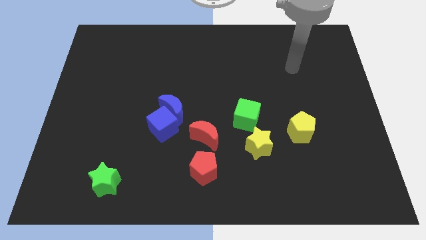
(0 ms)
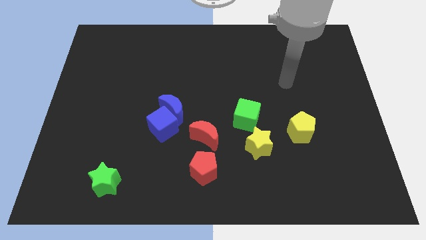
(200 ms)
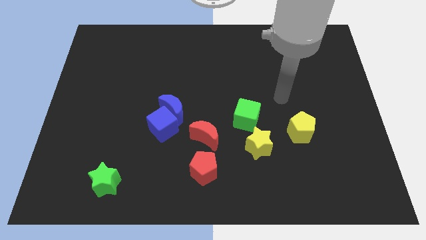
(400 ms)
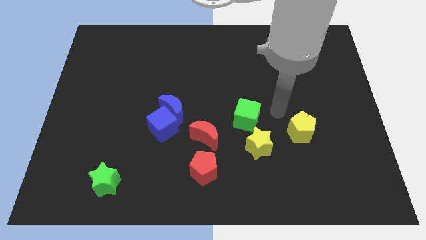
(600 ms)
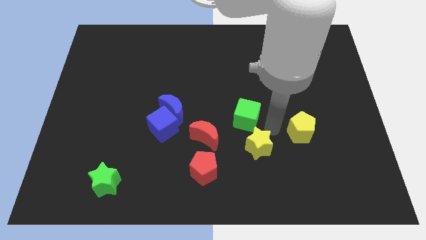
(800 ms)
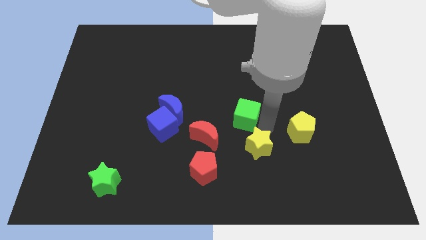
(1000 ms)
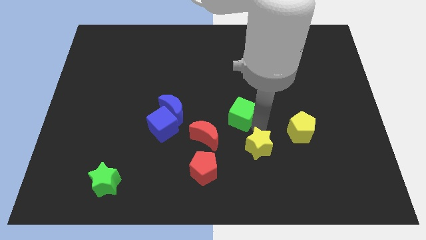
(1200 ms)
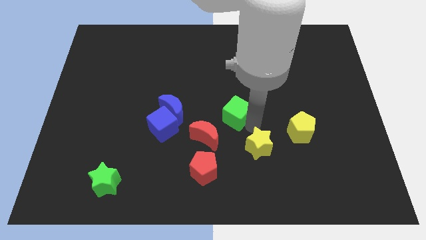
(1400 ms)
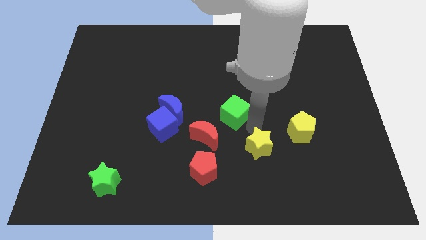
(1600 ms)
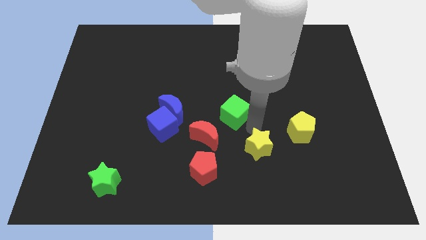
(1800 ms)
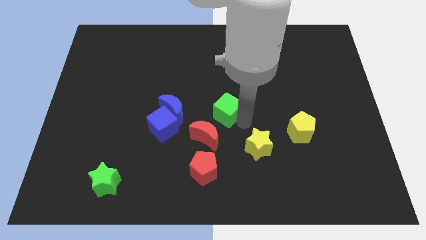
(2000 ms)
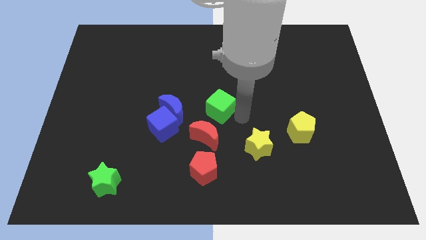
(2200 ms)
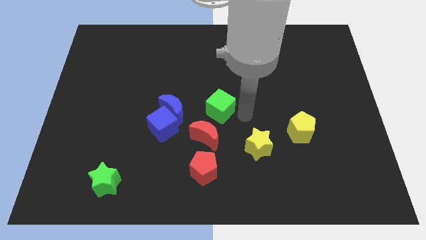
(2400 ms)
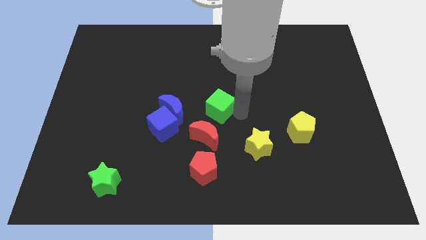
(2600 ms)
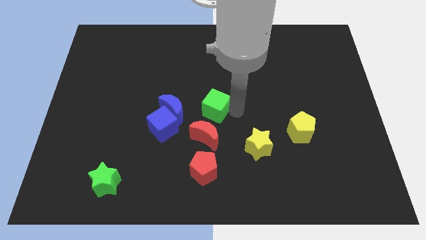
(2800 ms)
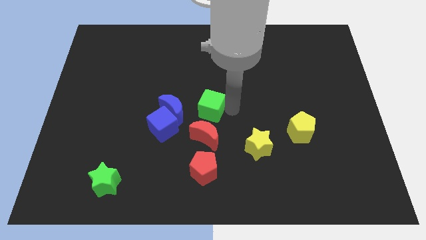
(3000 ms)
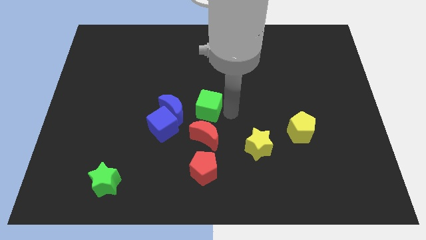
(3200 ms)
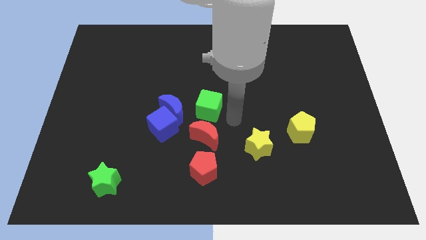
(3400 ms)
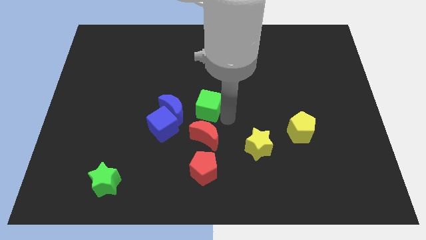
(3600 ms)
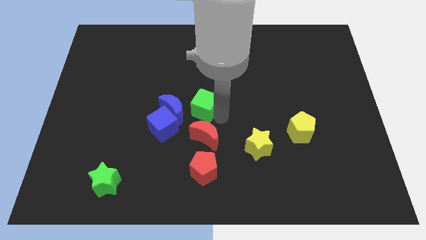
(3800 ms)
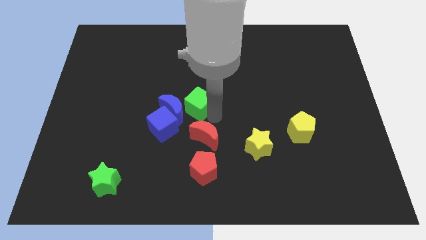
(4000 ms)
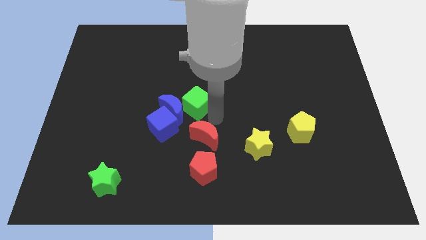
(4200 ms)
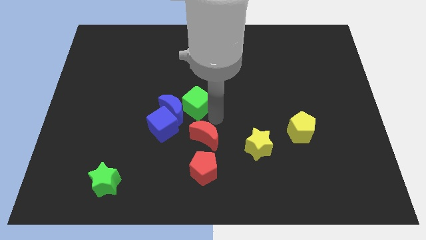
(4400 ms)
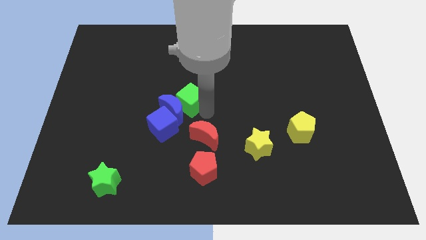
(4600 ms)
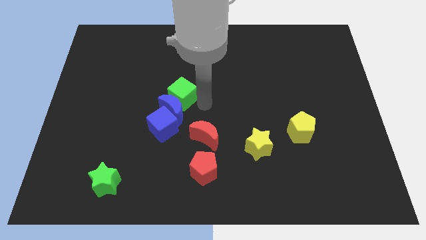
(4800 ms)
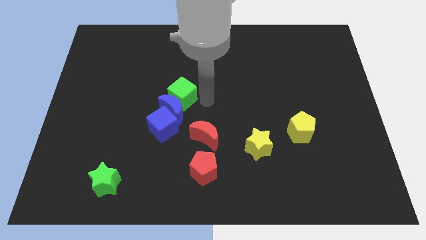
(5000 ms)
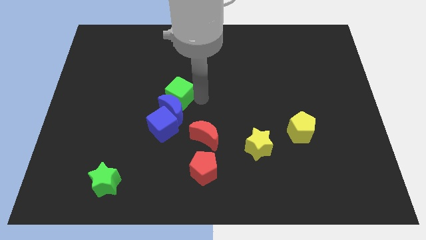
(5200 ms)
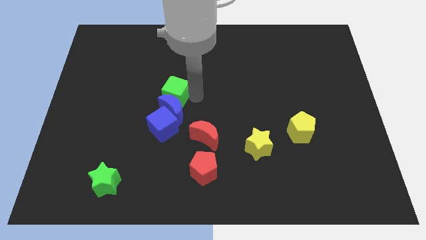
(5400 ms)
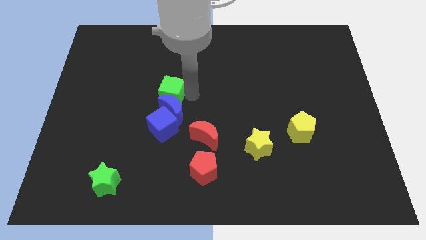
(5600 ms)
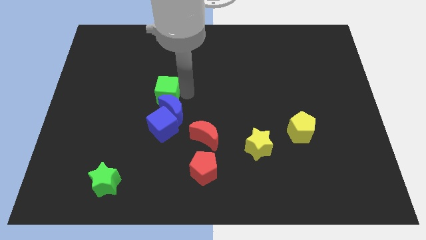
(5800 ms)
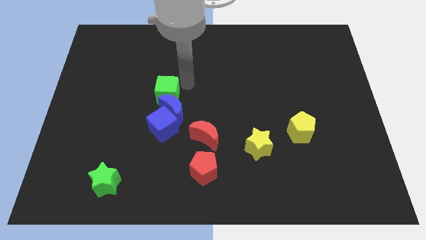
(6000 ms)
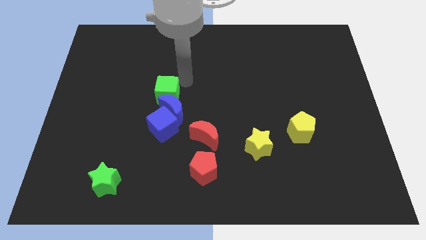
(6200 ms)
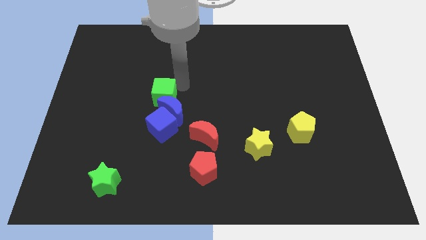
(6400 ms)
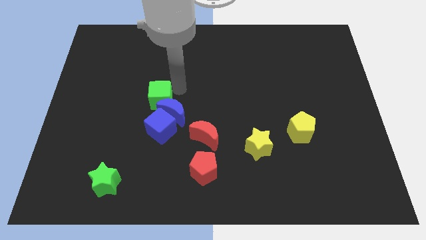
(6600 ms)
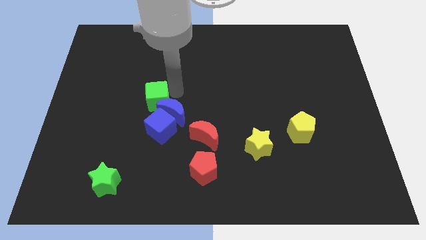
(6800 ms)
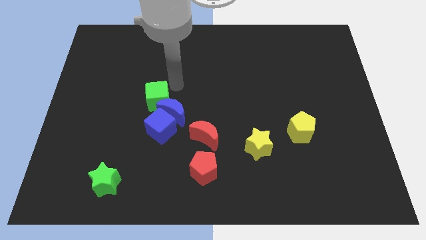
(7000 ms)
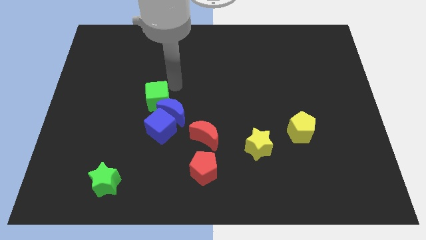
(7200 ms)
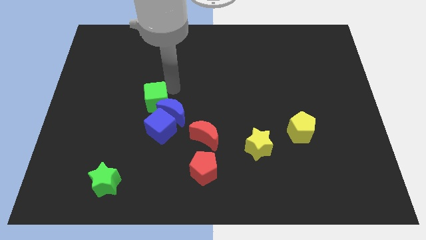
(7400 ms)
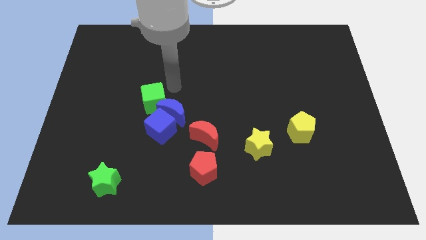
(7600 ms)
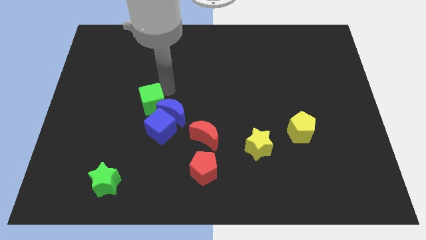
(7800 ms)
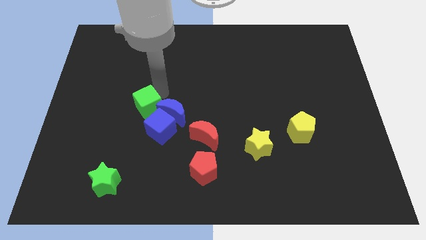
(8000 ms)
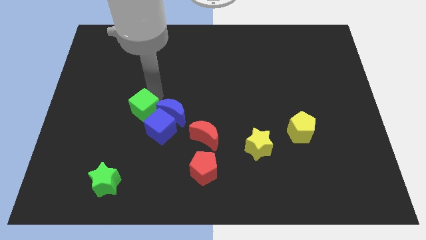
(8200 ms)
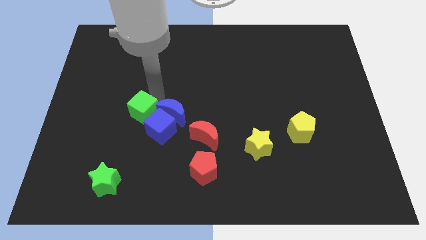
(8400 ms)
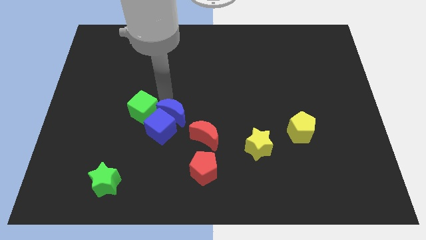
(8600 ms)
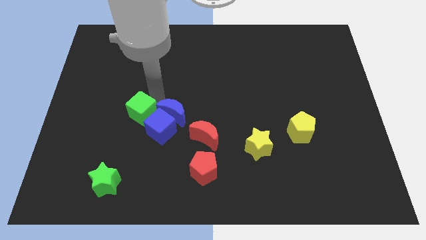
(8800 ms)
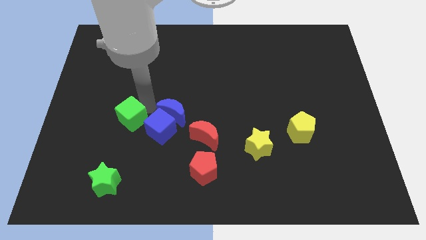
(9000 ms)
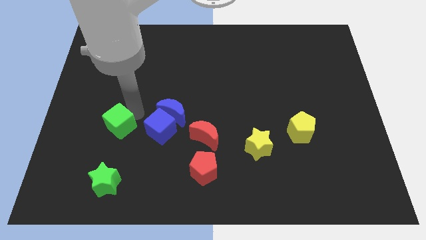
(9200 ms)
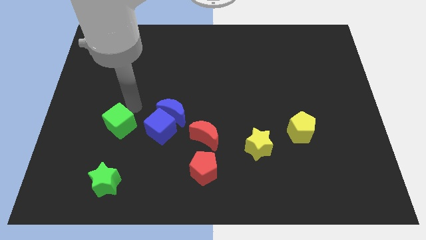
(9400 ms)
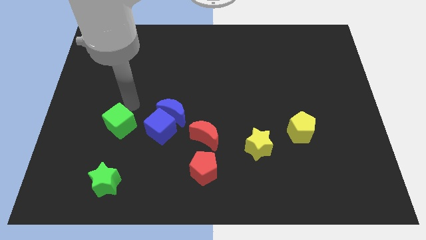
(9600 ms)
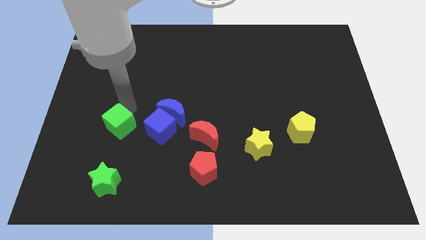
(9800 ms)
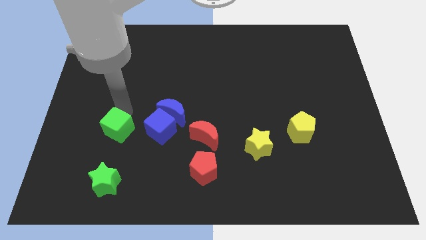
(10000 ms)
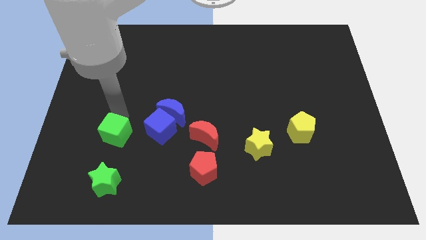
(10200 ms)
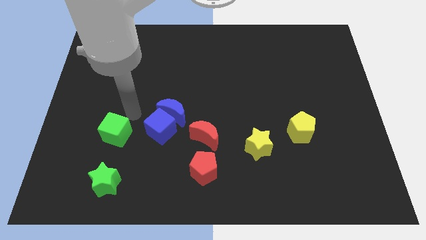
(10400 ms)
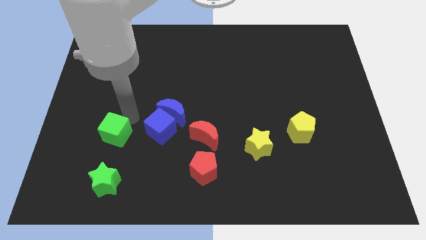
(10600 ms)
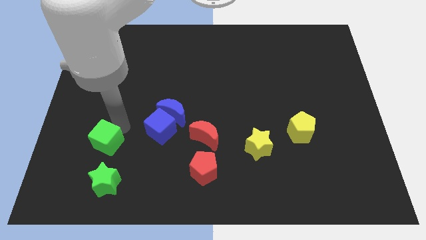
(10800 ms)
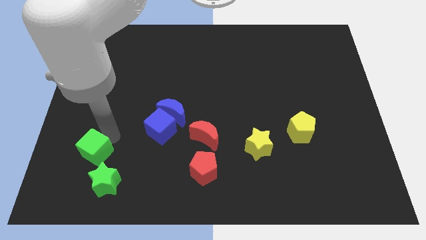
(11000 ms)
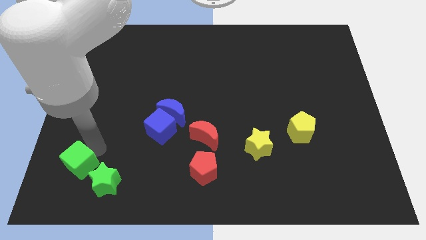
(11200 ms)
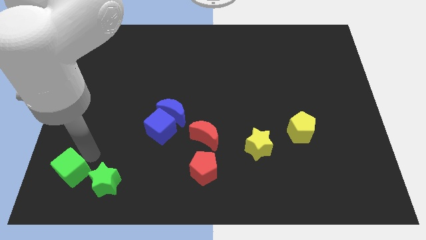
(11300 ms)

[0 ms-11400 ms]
put the green cube to the bottom left of the board

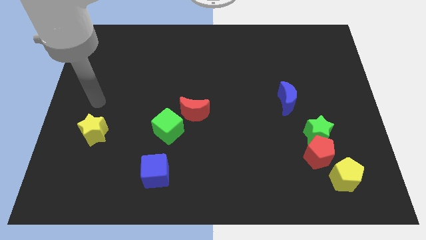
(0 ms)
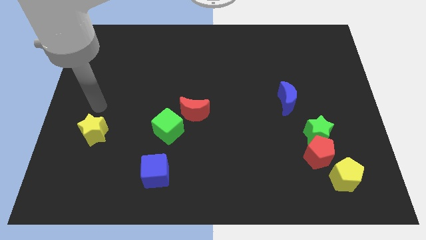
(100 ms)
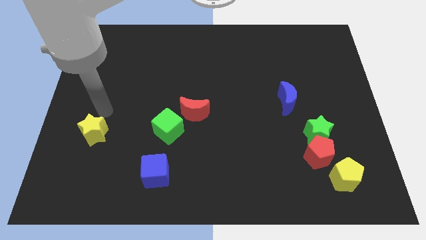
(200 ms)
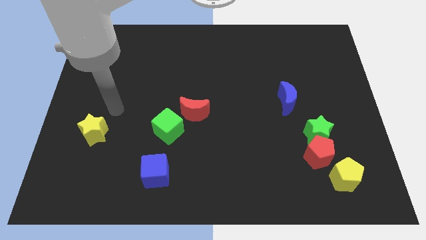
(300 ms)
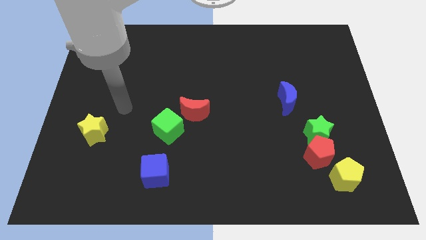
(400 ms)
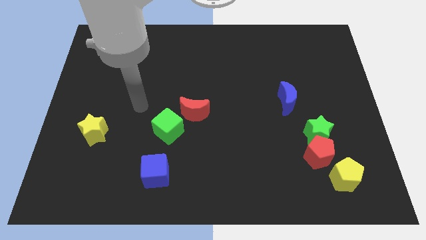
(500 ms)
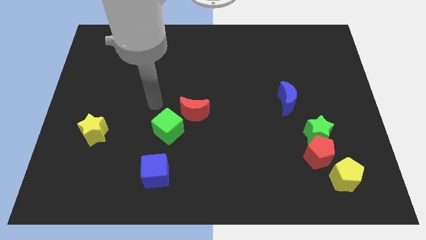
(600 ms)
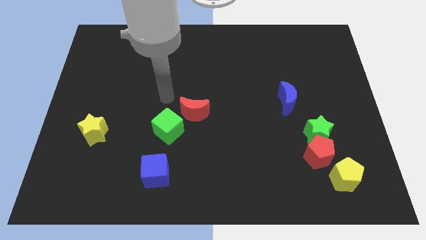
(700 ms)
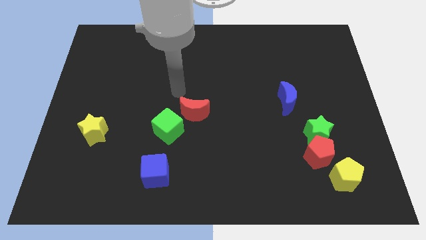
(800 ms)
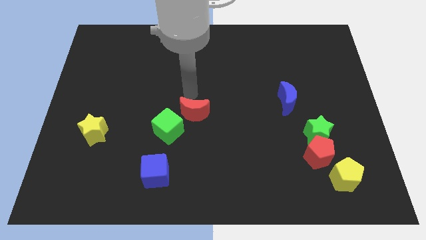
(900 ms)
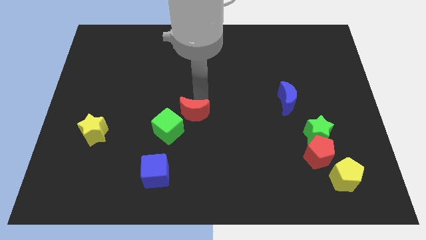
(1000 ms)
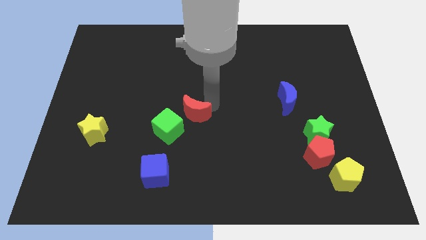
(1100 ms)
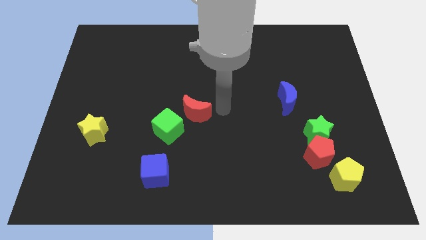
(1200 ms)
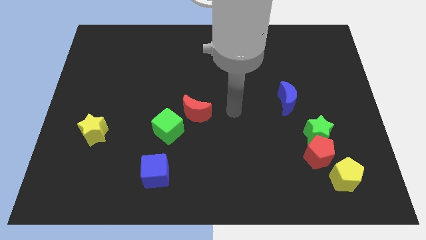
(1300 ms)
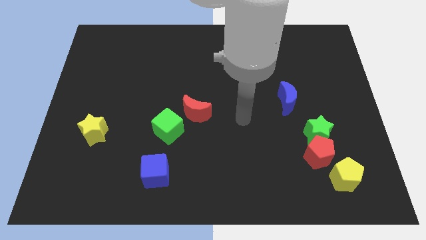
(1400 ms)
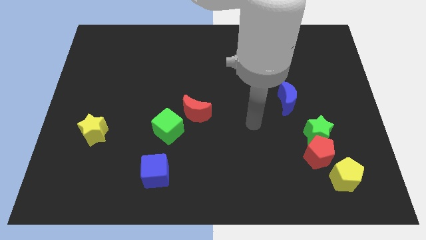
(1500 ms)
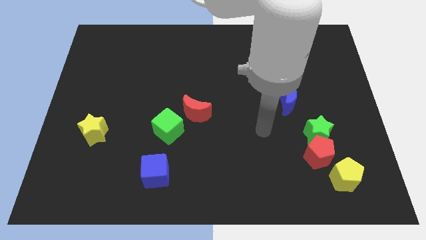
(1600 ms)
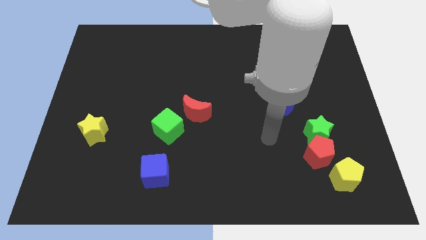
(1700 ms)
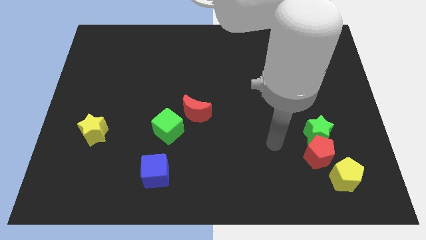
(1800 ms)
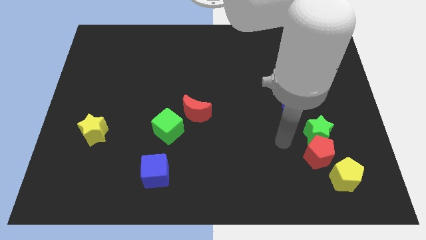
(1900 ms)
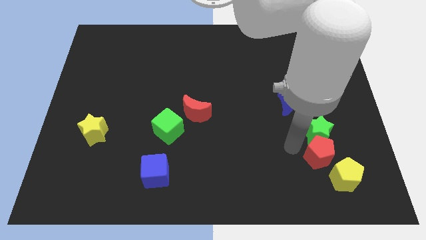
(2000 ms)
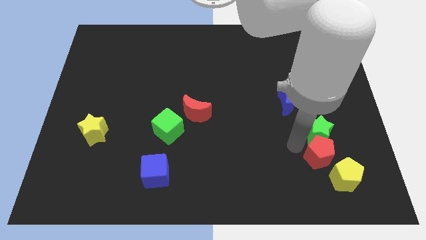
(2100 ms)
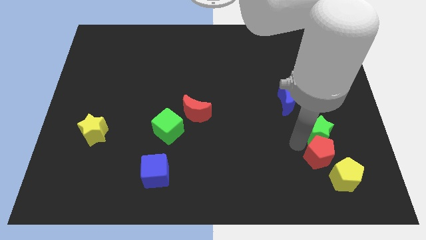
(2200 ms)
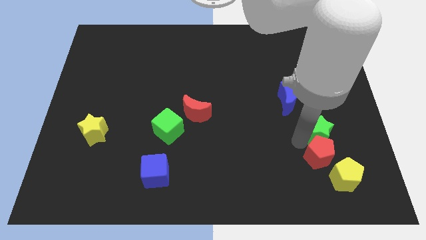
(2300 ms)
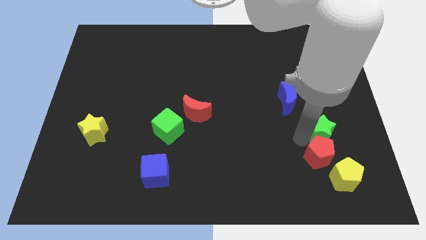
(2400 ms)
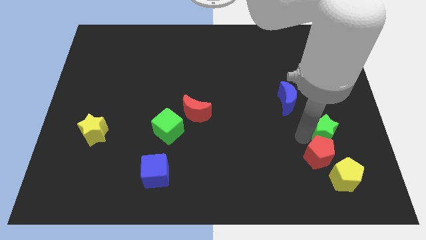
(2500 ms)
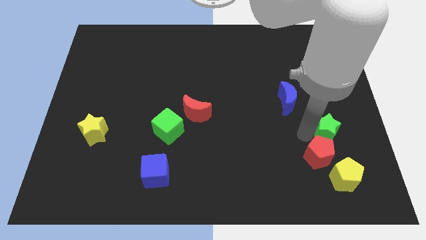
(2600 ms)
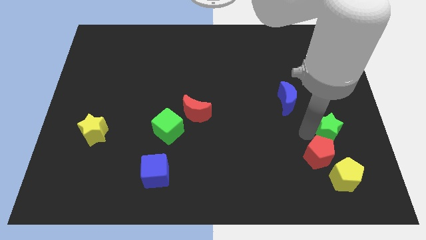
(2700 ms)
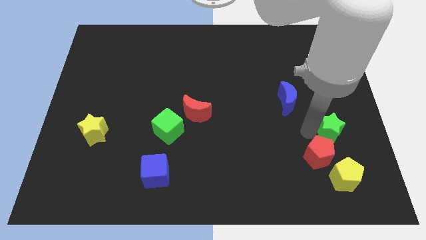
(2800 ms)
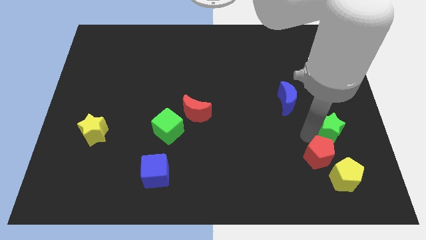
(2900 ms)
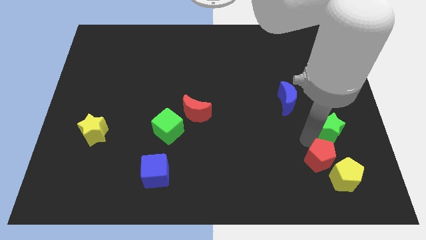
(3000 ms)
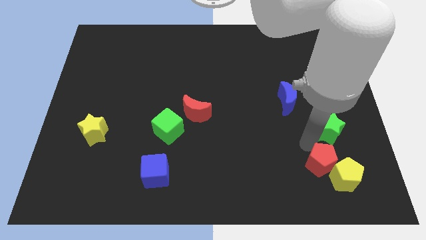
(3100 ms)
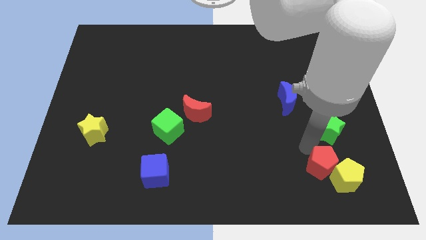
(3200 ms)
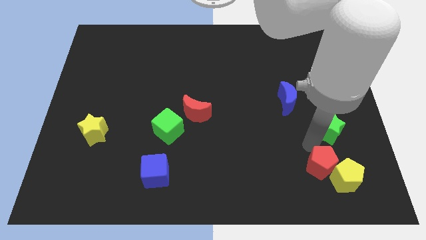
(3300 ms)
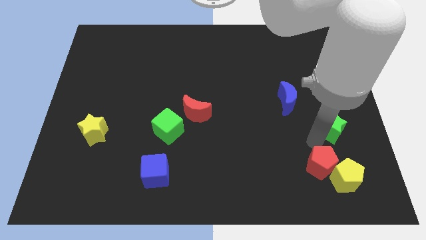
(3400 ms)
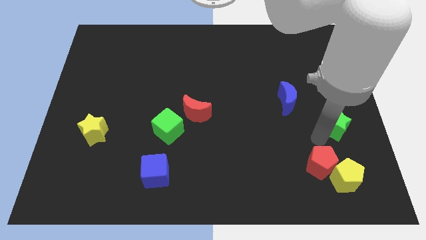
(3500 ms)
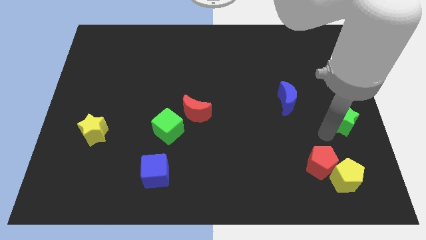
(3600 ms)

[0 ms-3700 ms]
move the green star to the center right
